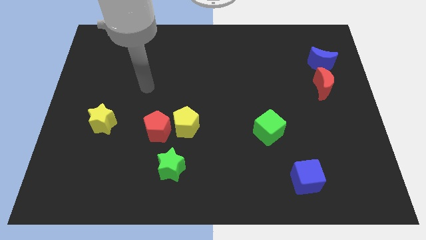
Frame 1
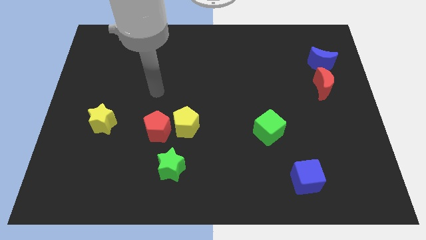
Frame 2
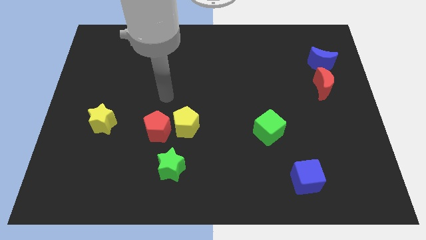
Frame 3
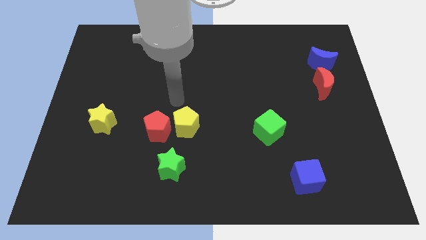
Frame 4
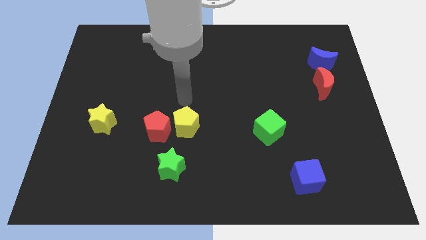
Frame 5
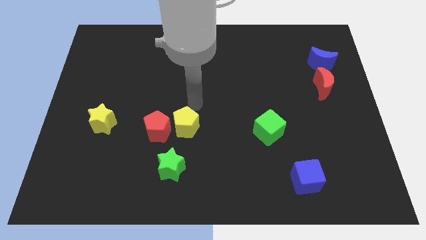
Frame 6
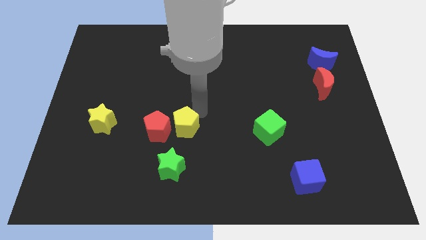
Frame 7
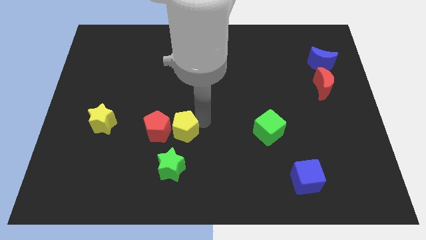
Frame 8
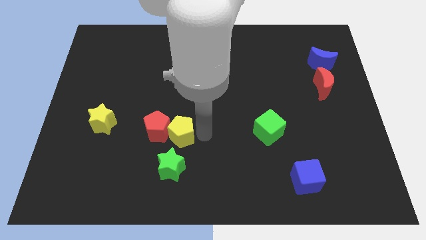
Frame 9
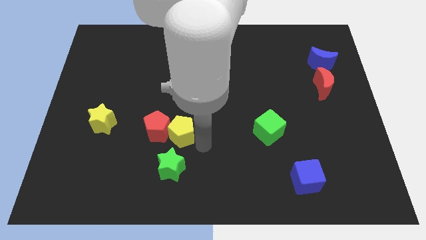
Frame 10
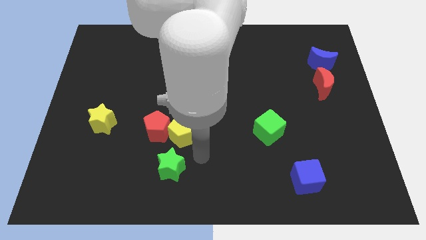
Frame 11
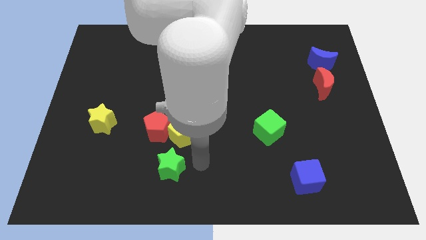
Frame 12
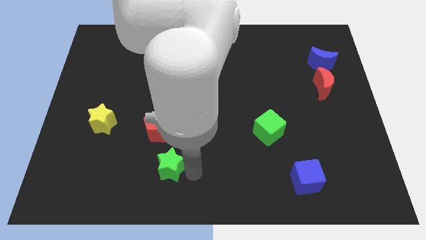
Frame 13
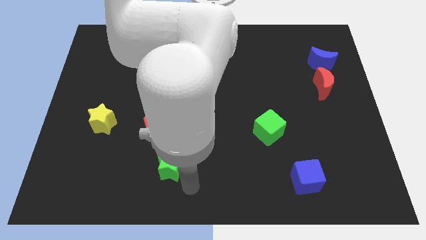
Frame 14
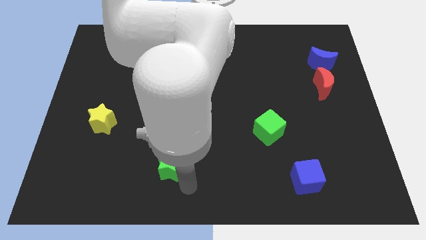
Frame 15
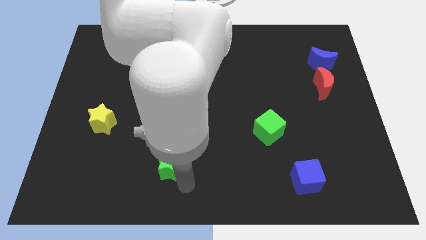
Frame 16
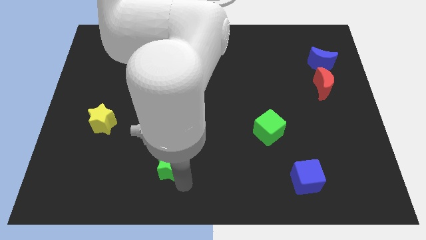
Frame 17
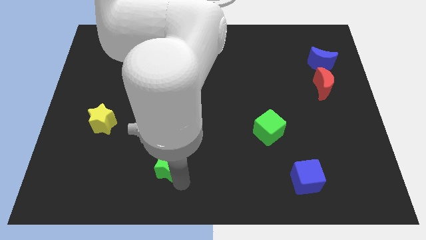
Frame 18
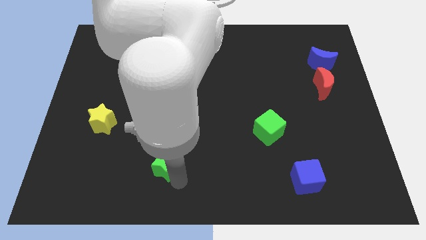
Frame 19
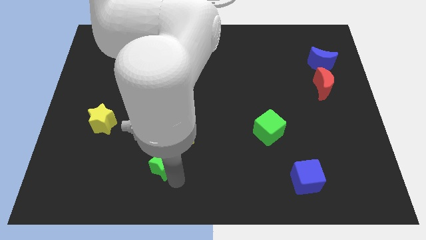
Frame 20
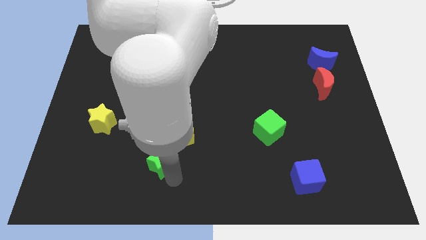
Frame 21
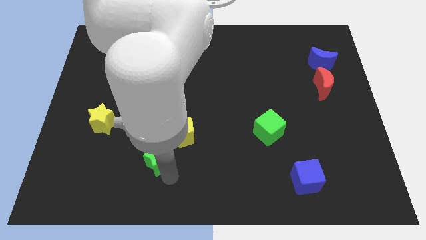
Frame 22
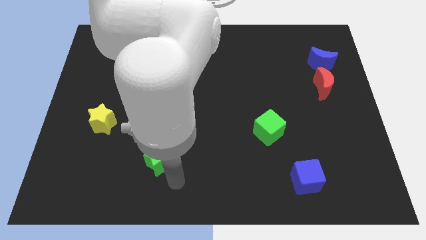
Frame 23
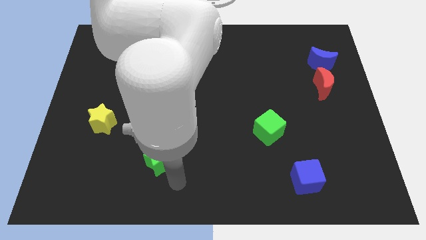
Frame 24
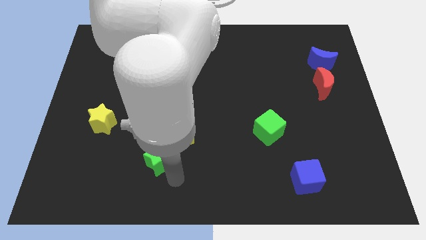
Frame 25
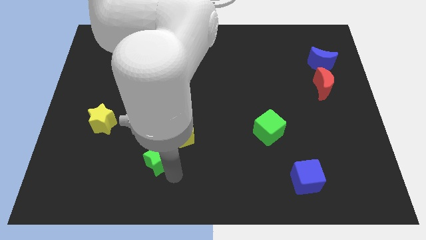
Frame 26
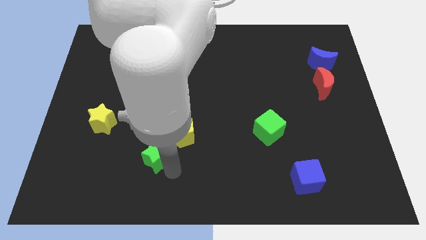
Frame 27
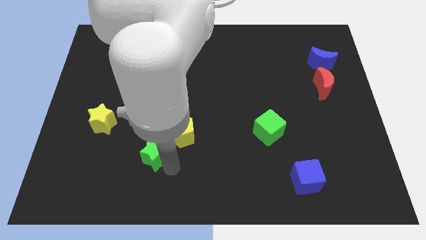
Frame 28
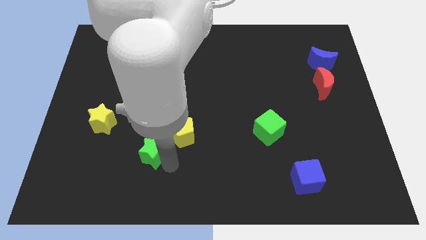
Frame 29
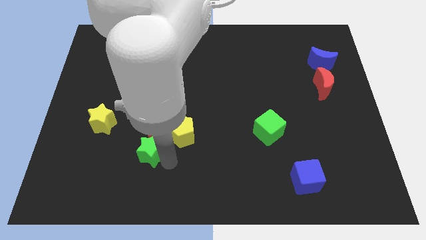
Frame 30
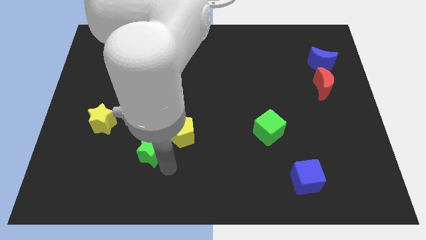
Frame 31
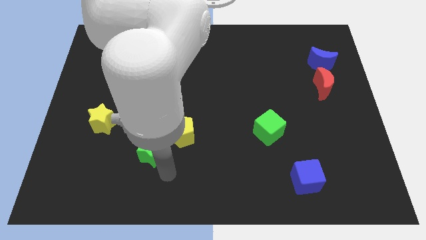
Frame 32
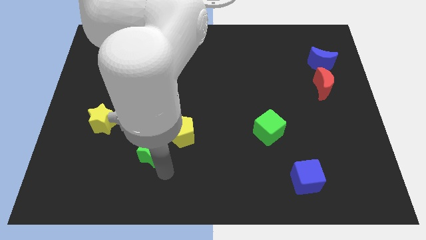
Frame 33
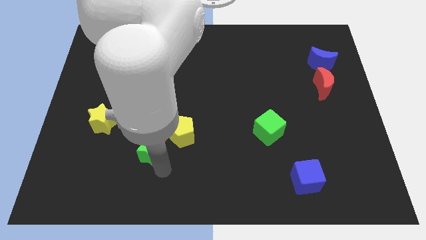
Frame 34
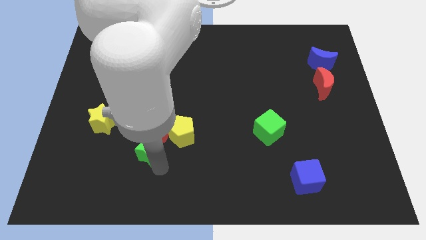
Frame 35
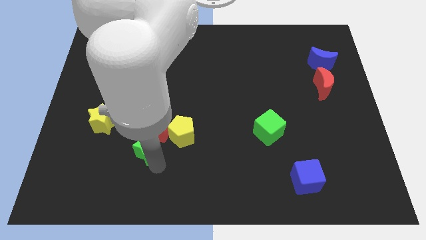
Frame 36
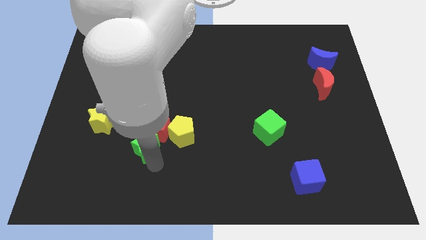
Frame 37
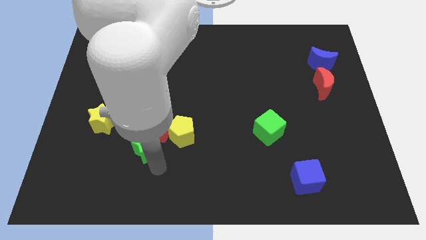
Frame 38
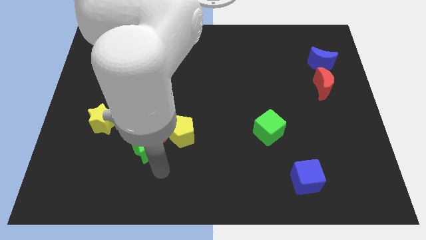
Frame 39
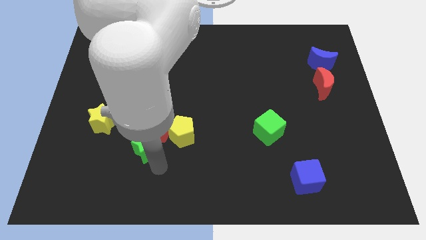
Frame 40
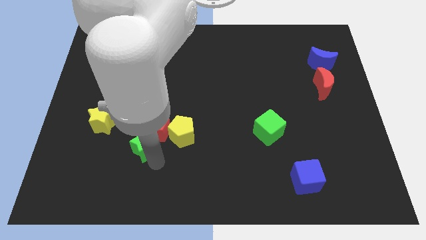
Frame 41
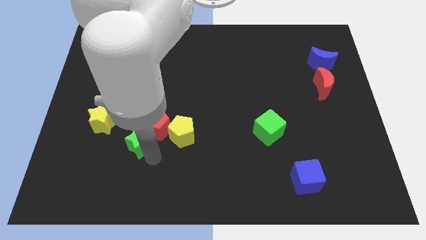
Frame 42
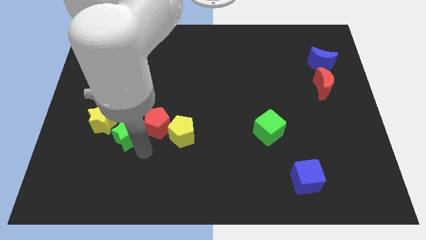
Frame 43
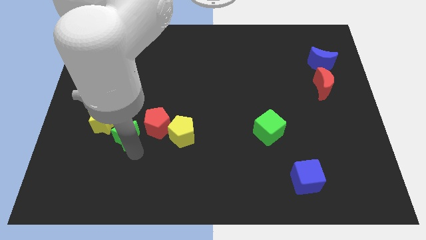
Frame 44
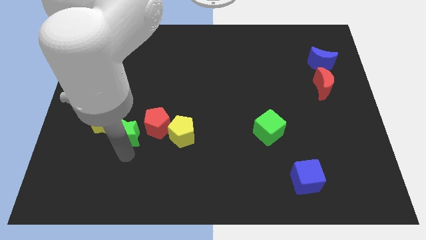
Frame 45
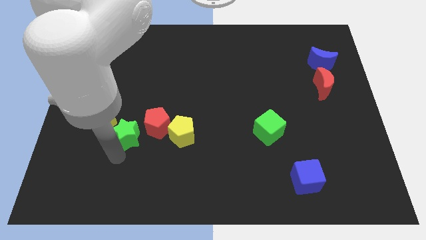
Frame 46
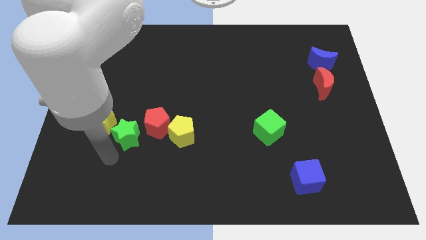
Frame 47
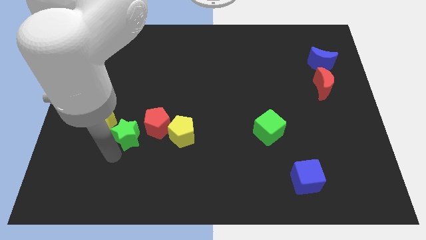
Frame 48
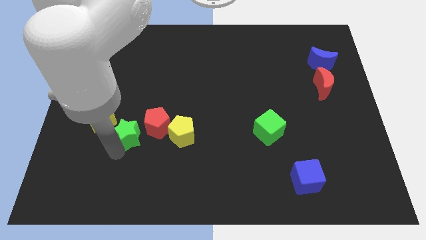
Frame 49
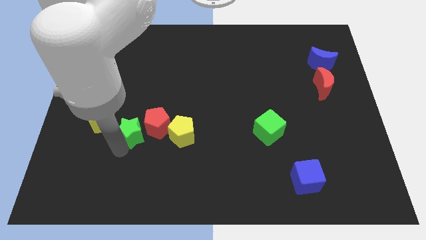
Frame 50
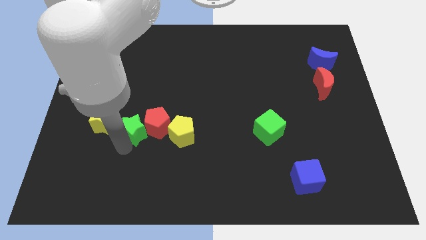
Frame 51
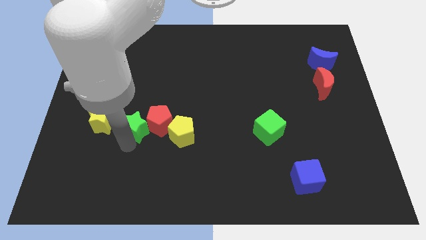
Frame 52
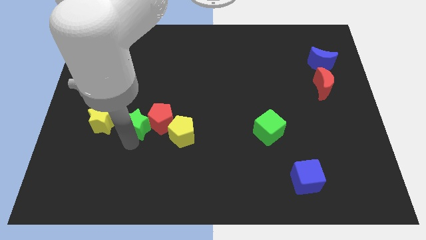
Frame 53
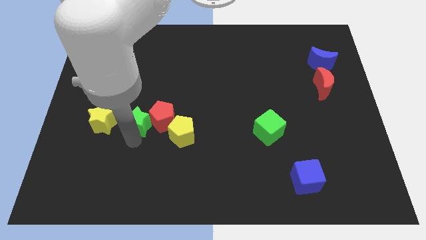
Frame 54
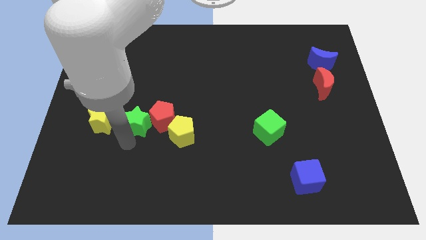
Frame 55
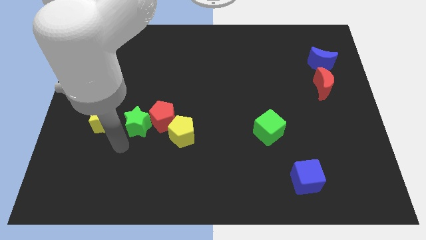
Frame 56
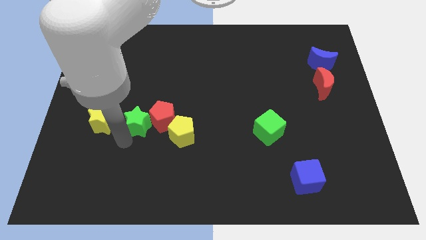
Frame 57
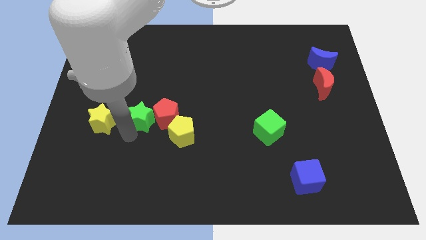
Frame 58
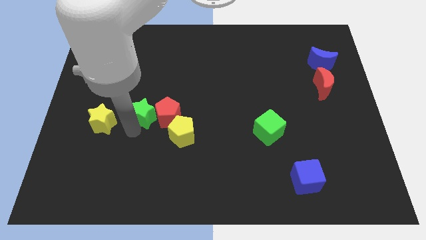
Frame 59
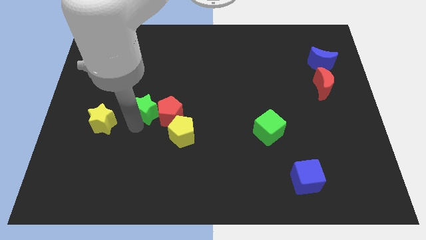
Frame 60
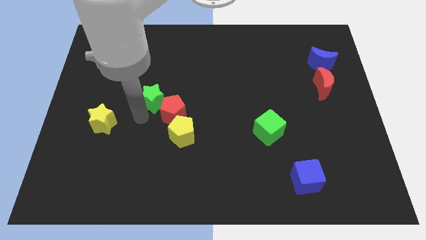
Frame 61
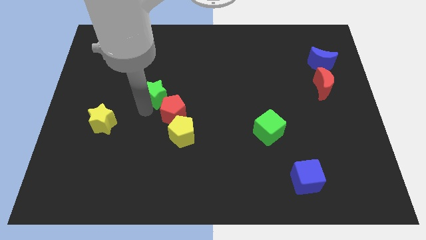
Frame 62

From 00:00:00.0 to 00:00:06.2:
push the green star to the top side of the red pentagon

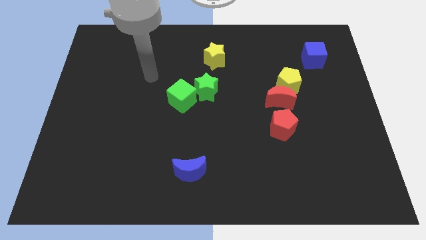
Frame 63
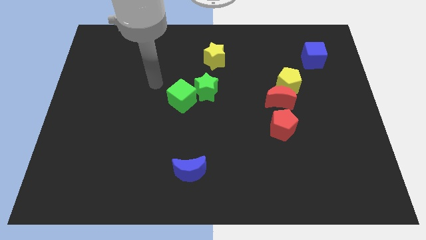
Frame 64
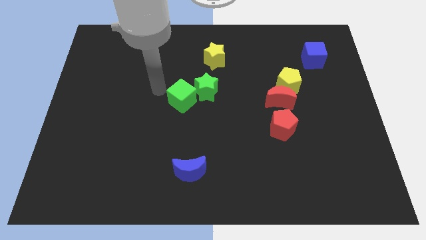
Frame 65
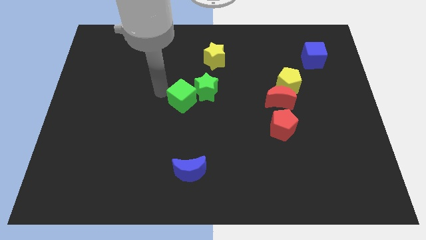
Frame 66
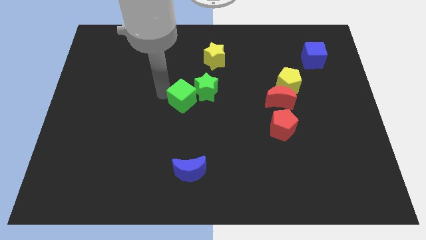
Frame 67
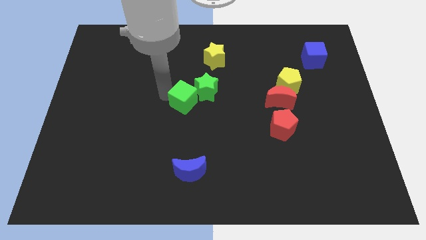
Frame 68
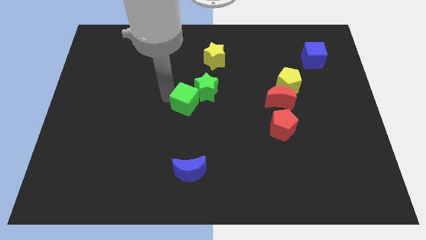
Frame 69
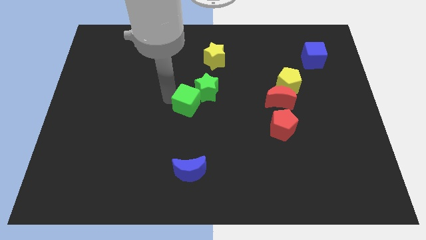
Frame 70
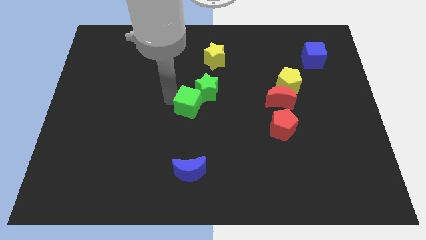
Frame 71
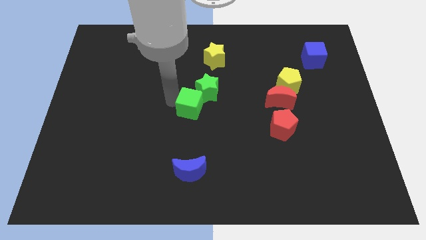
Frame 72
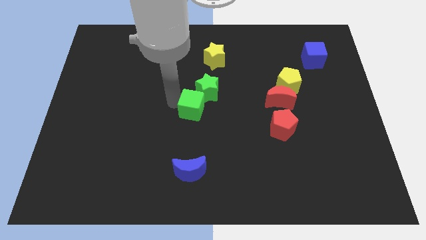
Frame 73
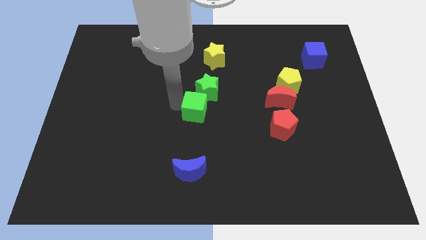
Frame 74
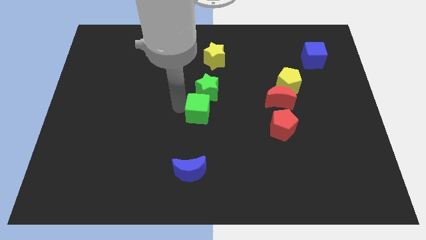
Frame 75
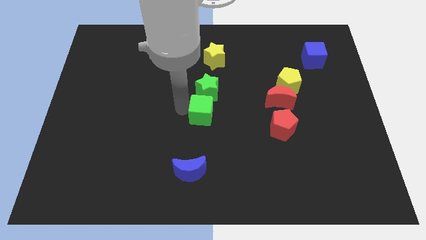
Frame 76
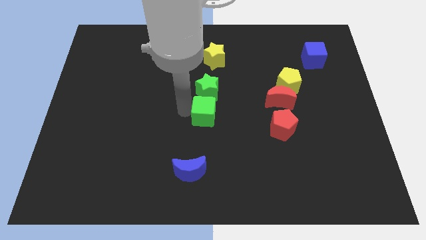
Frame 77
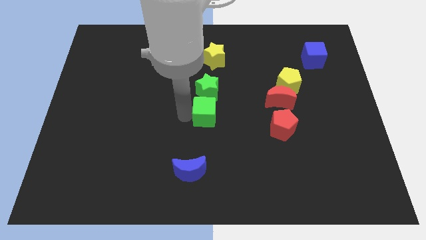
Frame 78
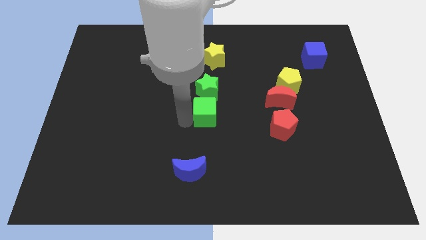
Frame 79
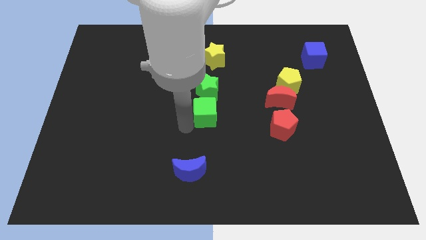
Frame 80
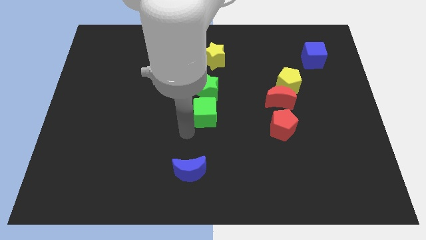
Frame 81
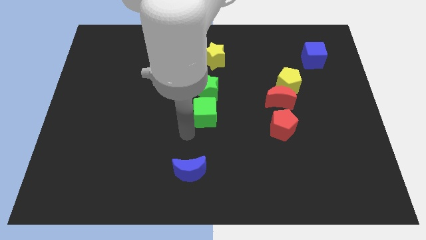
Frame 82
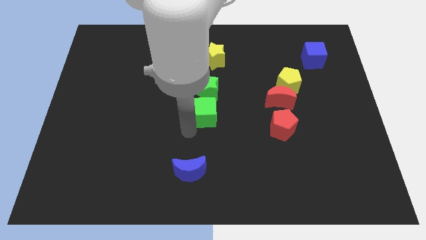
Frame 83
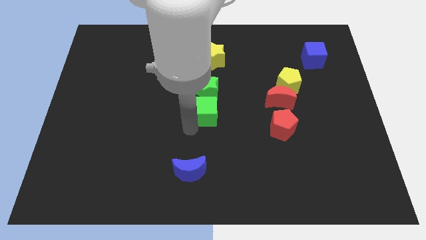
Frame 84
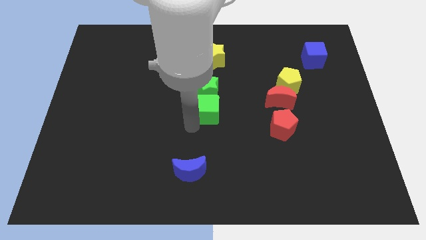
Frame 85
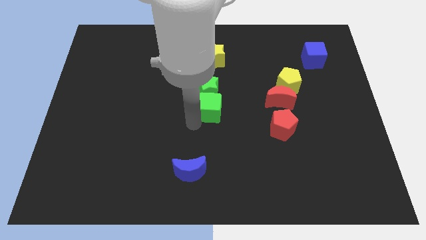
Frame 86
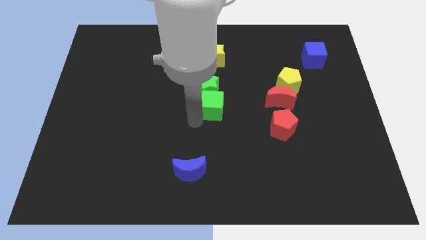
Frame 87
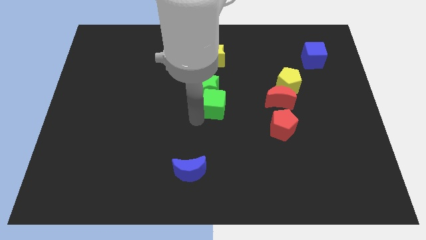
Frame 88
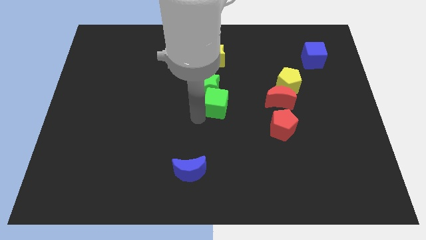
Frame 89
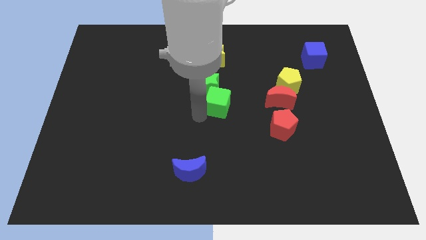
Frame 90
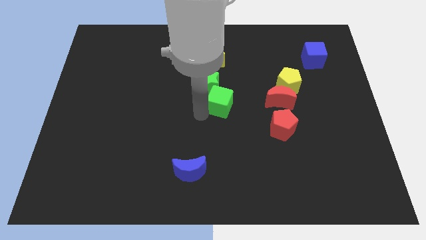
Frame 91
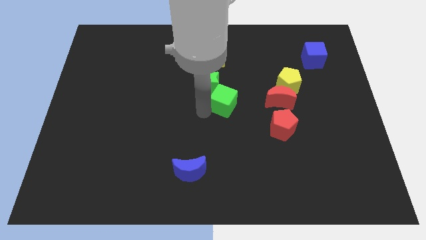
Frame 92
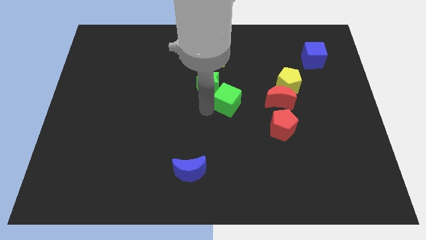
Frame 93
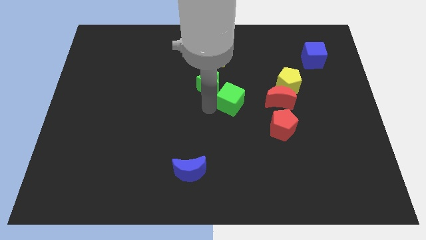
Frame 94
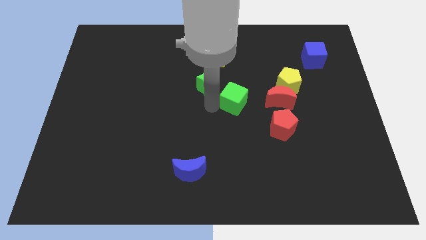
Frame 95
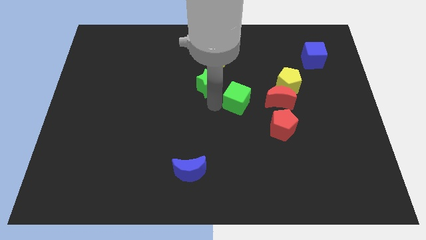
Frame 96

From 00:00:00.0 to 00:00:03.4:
slide the green cube just left of the yellow pentagon
